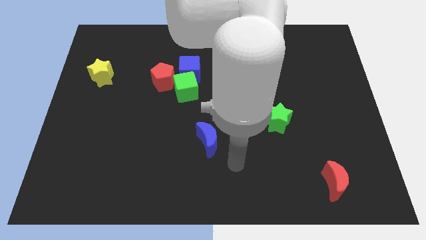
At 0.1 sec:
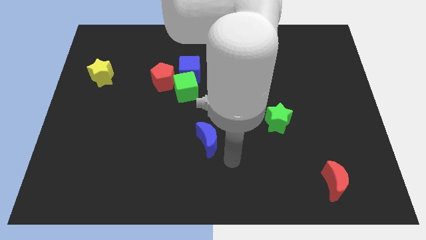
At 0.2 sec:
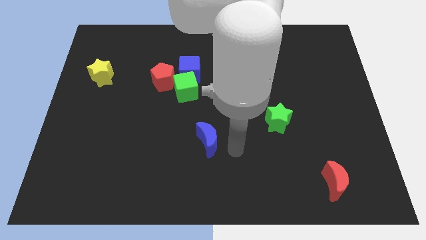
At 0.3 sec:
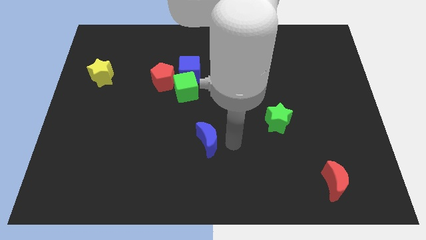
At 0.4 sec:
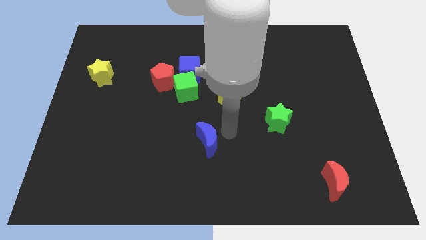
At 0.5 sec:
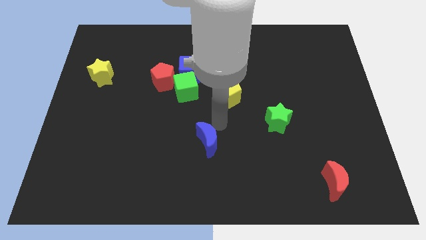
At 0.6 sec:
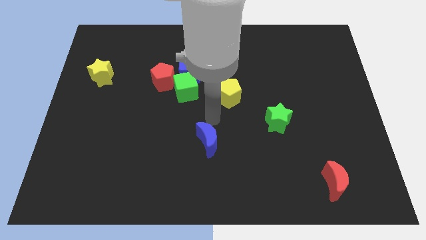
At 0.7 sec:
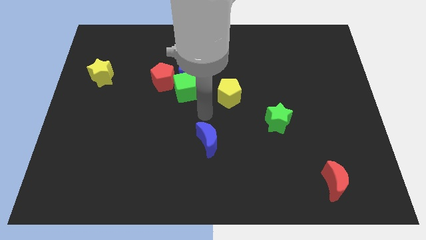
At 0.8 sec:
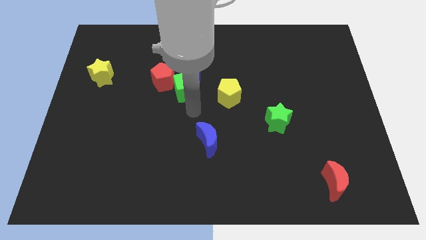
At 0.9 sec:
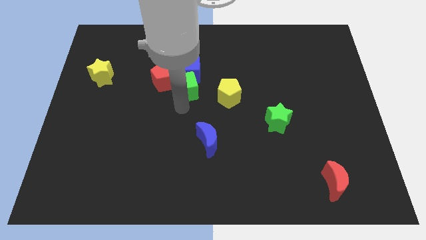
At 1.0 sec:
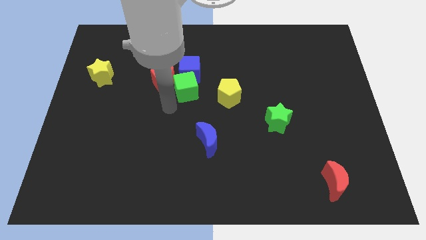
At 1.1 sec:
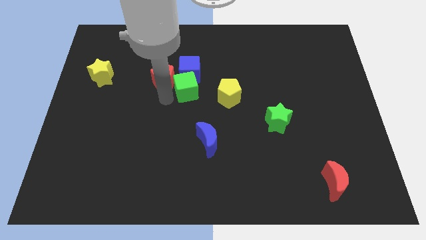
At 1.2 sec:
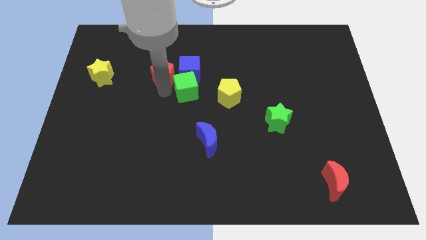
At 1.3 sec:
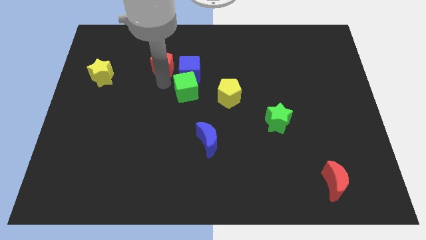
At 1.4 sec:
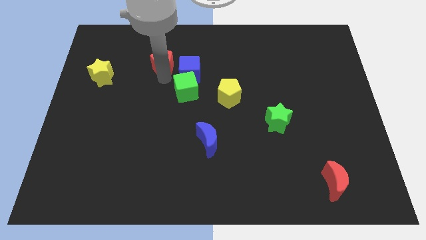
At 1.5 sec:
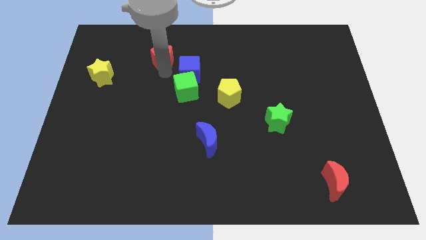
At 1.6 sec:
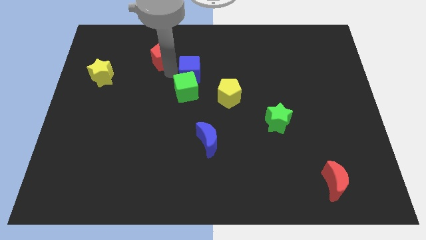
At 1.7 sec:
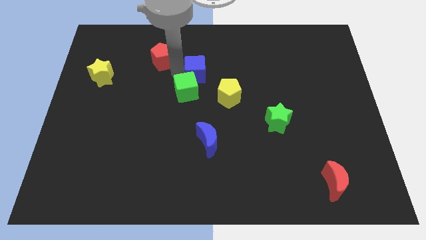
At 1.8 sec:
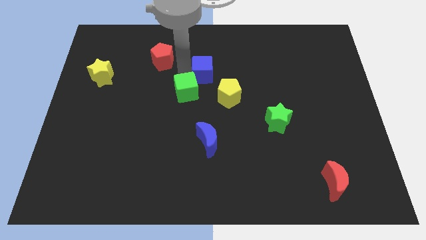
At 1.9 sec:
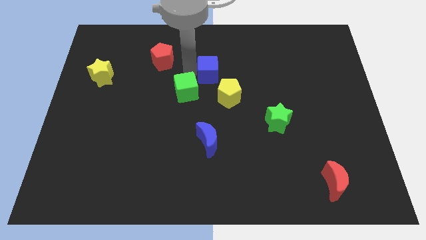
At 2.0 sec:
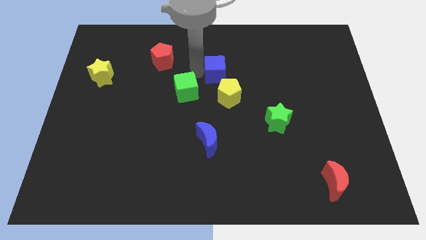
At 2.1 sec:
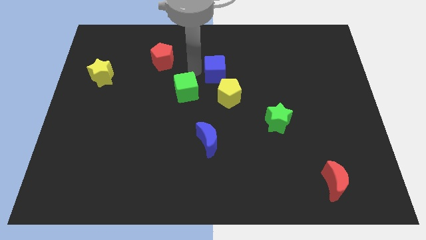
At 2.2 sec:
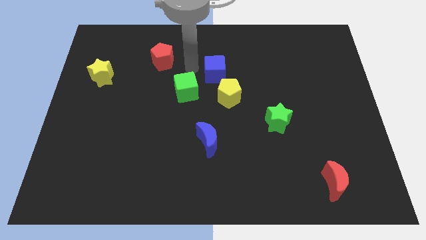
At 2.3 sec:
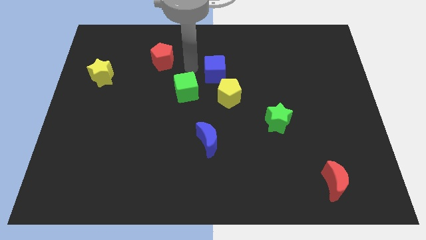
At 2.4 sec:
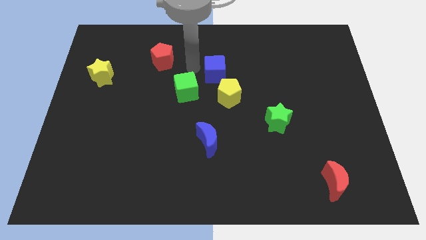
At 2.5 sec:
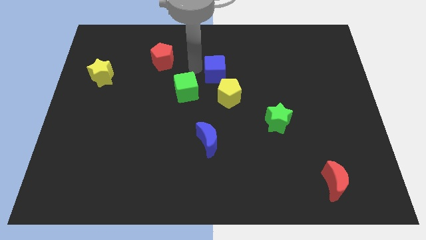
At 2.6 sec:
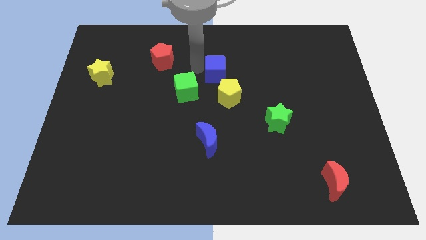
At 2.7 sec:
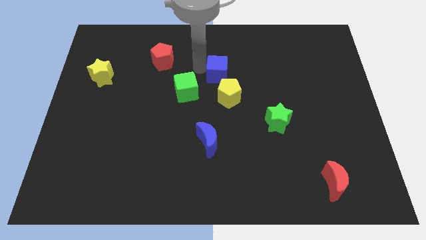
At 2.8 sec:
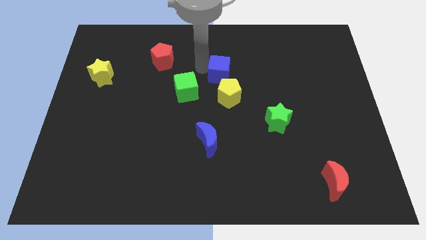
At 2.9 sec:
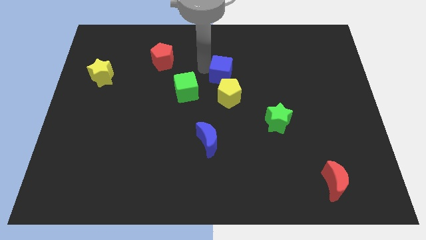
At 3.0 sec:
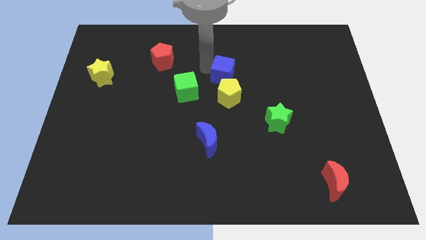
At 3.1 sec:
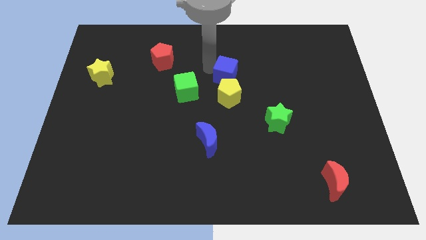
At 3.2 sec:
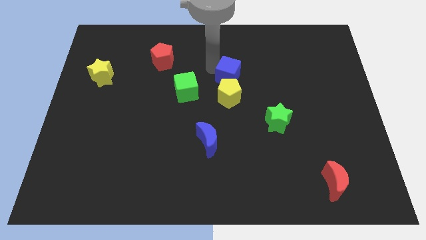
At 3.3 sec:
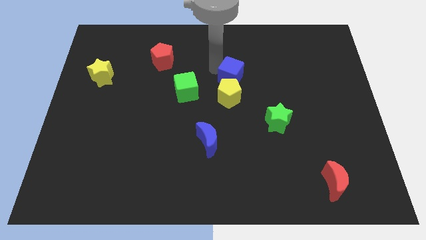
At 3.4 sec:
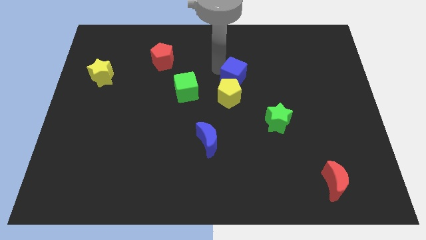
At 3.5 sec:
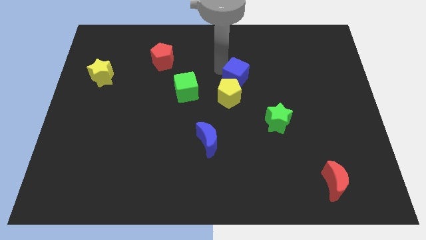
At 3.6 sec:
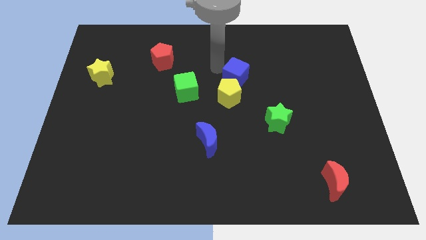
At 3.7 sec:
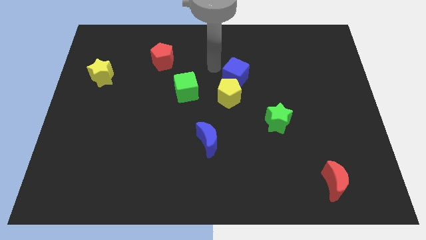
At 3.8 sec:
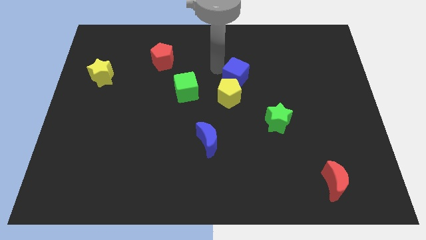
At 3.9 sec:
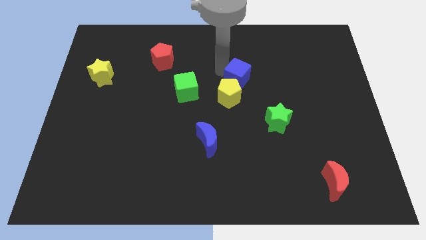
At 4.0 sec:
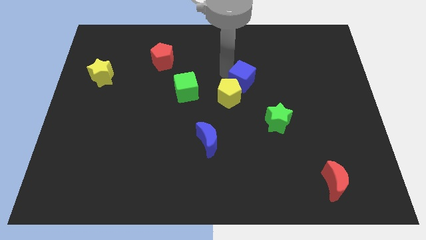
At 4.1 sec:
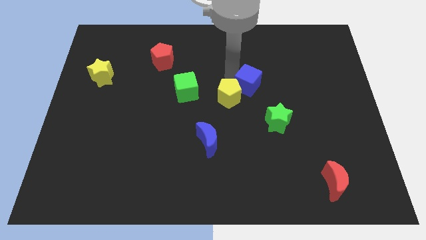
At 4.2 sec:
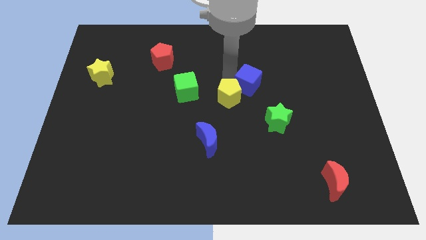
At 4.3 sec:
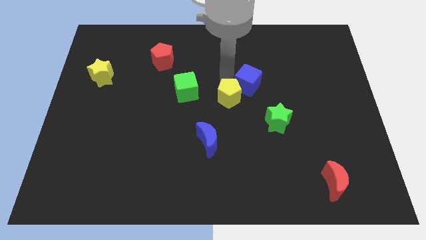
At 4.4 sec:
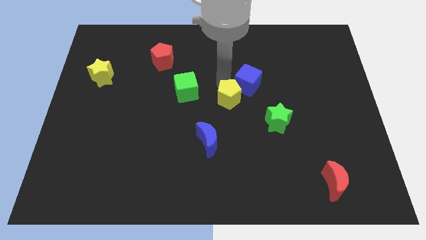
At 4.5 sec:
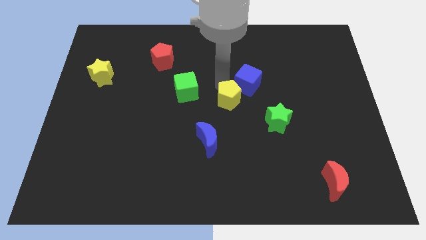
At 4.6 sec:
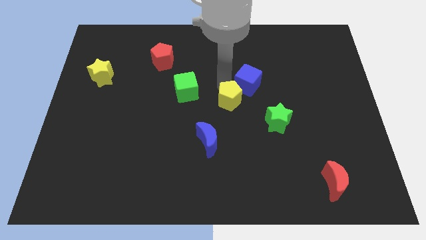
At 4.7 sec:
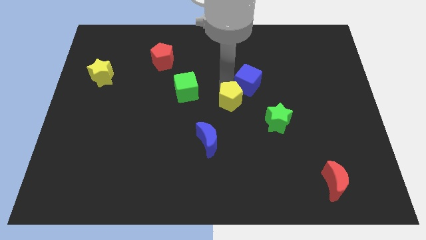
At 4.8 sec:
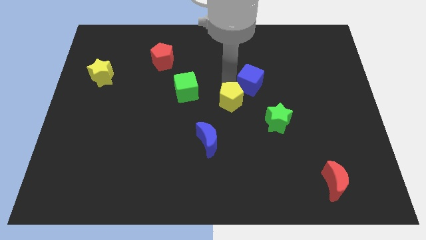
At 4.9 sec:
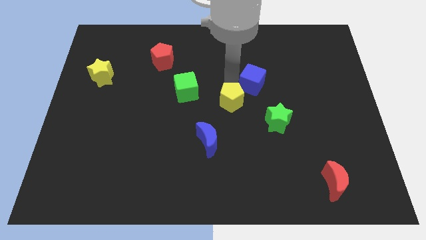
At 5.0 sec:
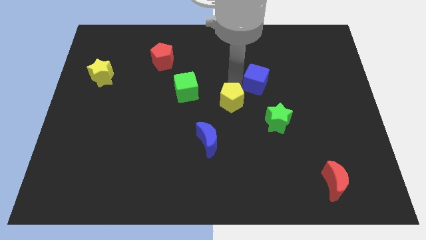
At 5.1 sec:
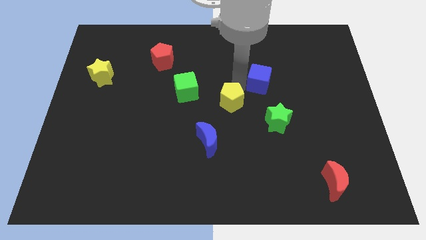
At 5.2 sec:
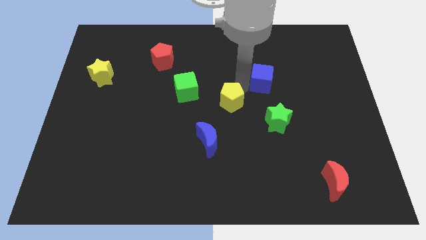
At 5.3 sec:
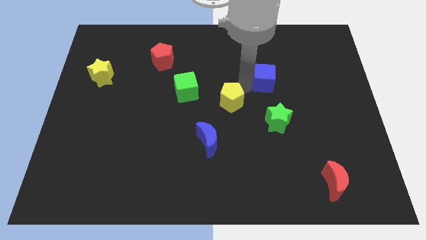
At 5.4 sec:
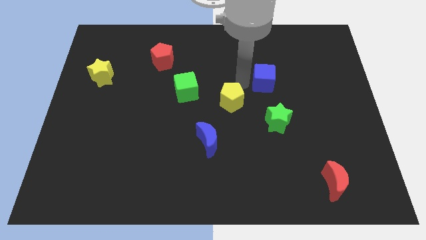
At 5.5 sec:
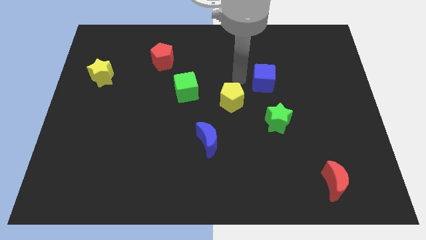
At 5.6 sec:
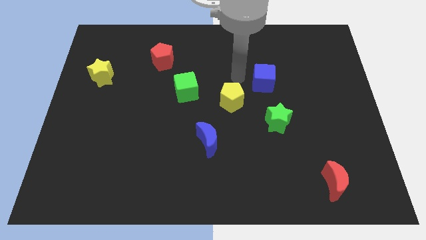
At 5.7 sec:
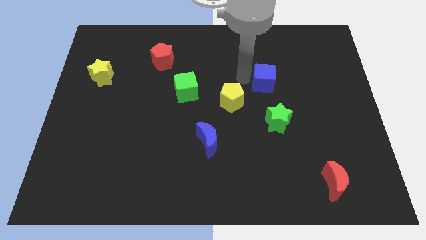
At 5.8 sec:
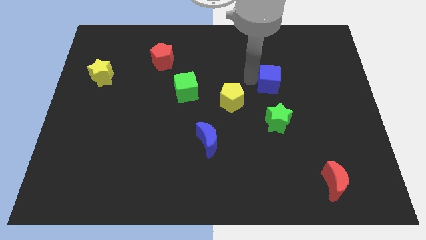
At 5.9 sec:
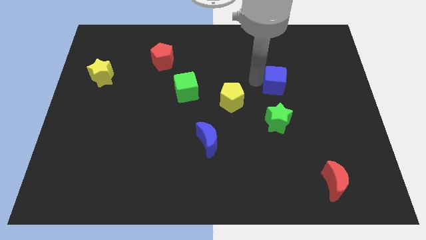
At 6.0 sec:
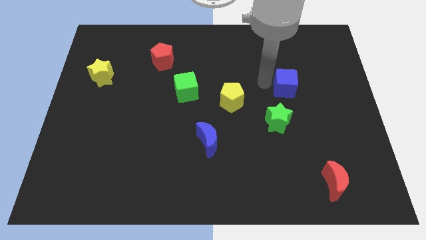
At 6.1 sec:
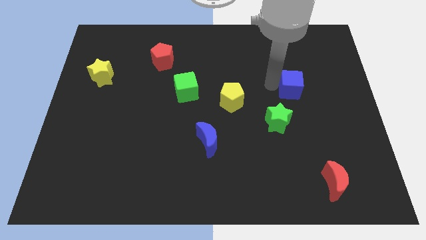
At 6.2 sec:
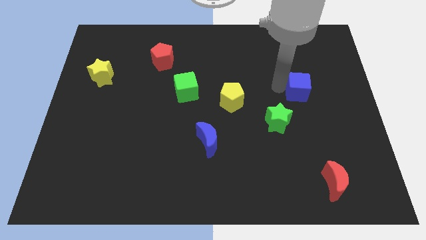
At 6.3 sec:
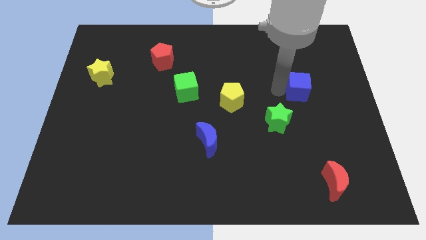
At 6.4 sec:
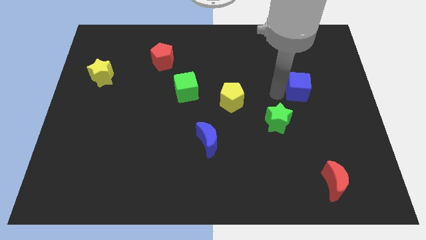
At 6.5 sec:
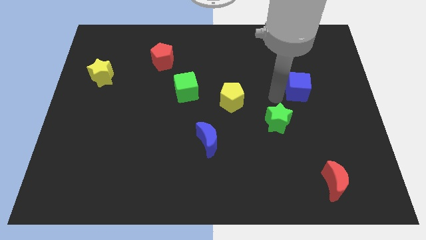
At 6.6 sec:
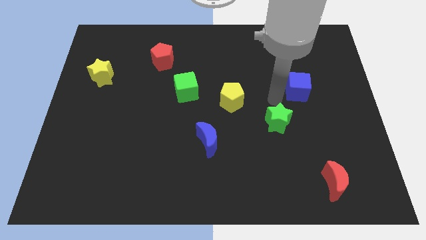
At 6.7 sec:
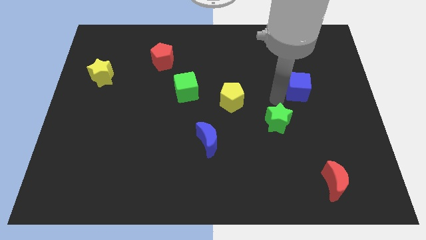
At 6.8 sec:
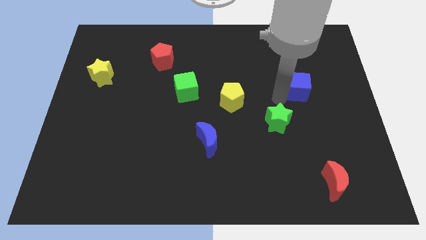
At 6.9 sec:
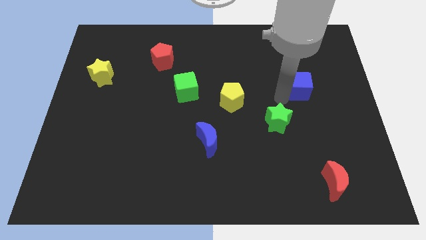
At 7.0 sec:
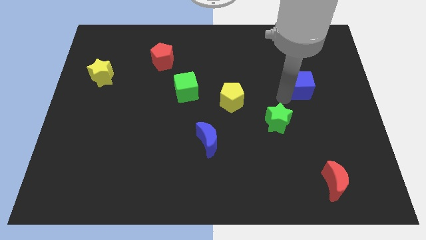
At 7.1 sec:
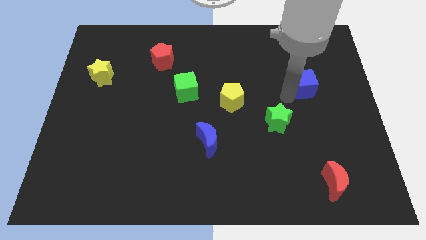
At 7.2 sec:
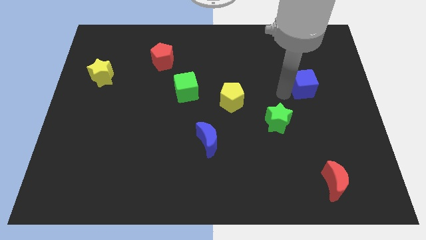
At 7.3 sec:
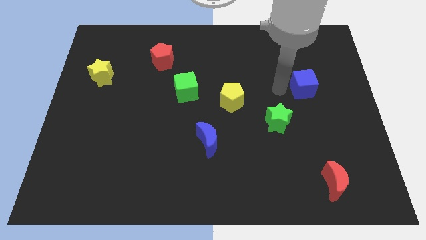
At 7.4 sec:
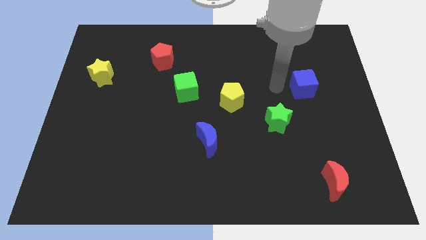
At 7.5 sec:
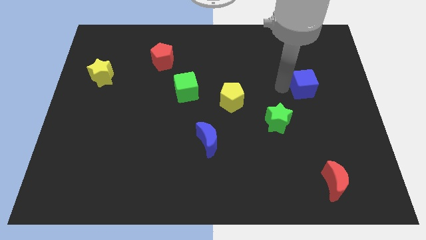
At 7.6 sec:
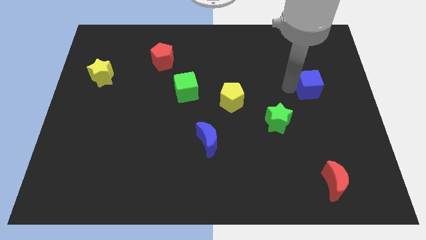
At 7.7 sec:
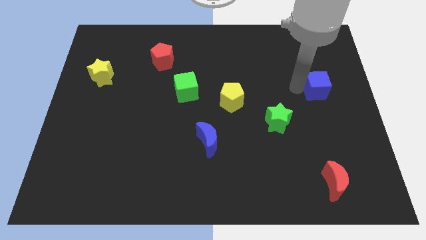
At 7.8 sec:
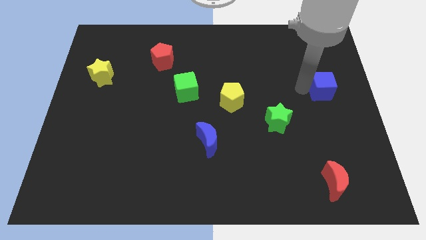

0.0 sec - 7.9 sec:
slide the blue cube to the right side
